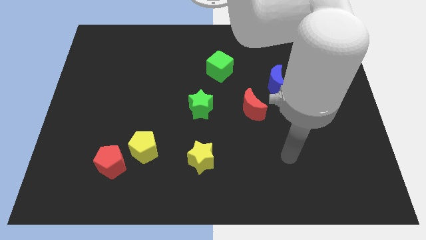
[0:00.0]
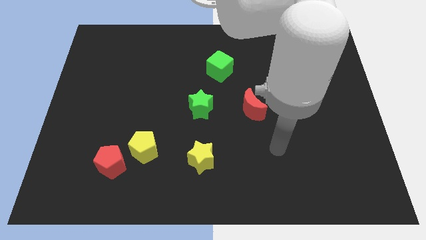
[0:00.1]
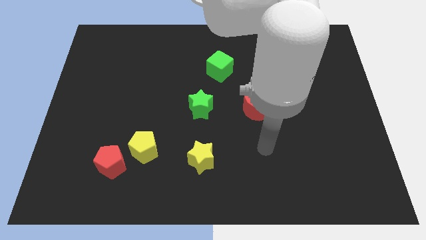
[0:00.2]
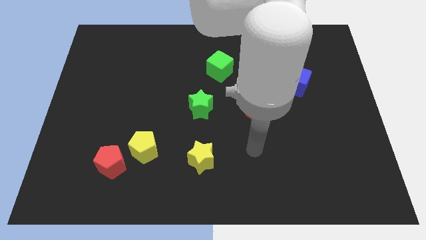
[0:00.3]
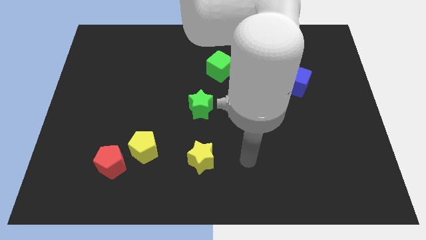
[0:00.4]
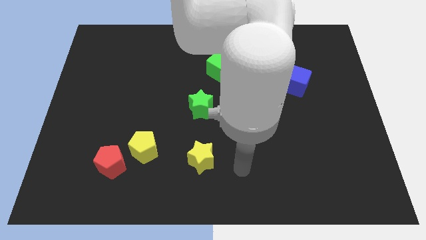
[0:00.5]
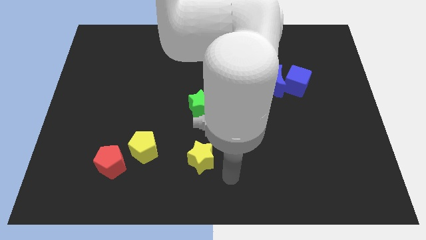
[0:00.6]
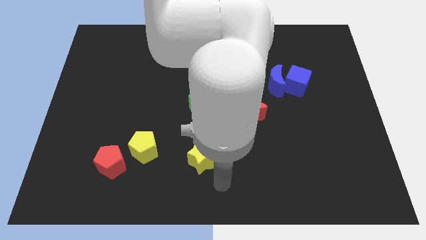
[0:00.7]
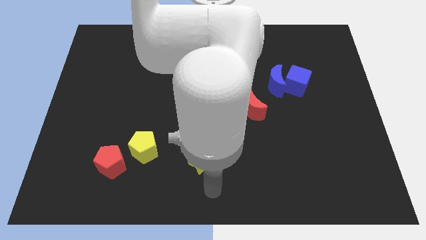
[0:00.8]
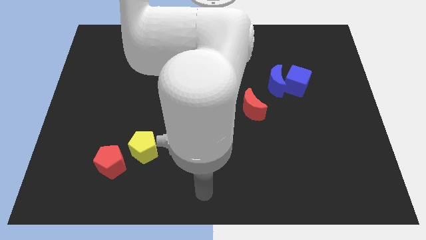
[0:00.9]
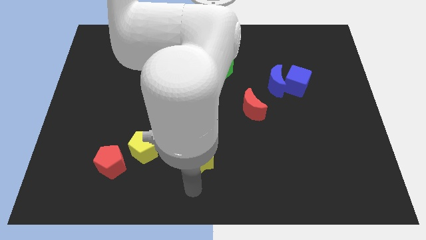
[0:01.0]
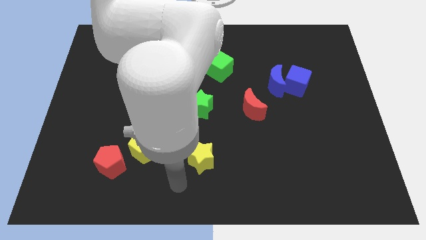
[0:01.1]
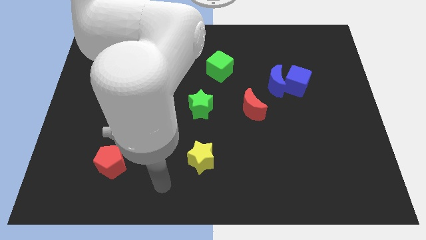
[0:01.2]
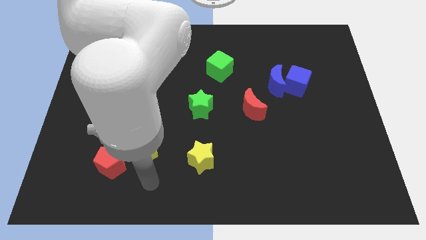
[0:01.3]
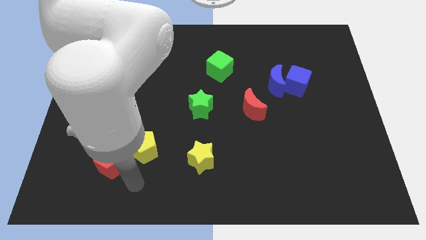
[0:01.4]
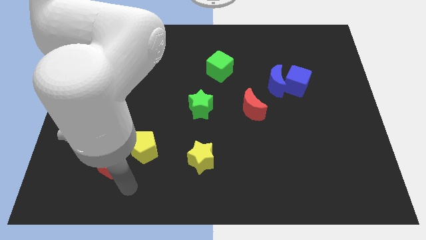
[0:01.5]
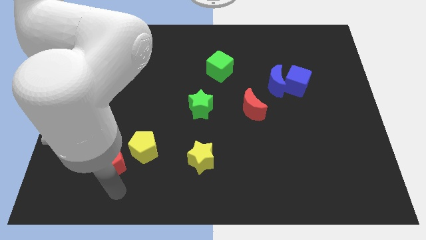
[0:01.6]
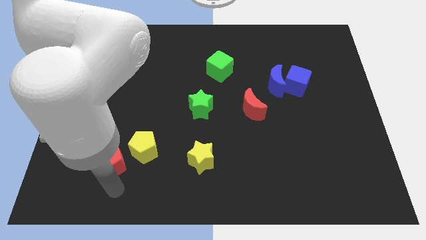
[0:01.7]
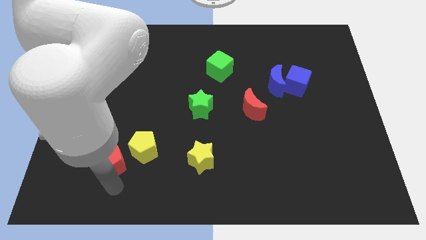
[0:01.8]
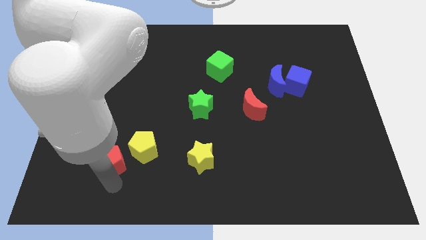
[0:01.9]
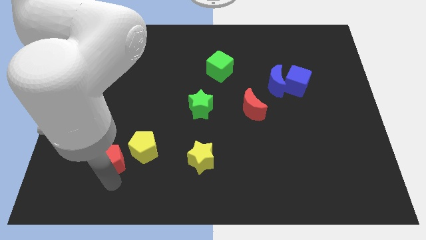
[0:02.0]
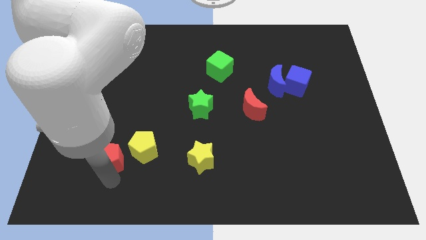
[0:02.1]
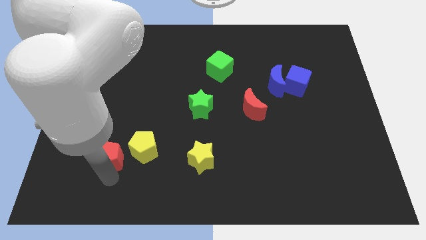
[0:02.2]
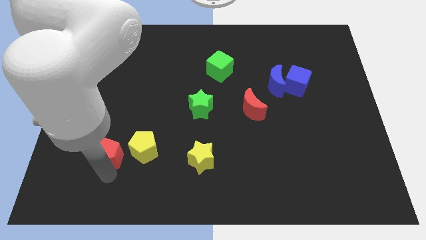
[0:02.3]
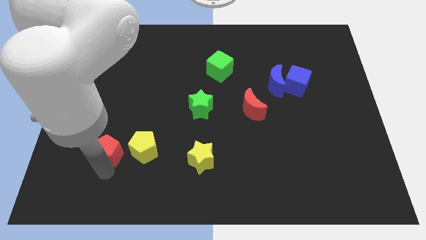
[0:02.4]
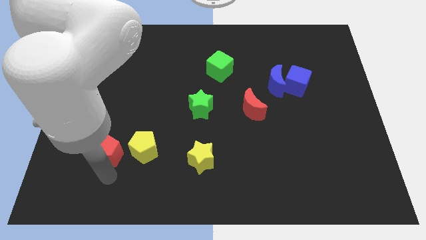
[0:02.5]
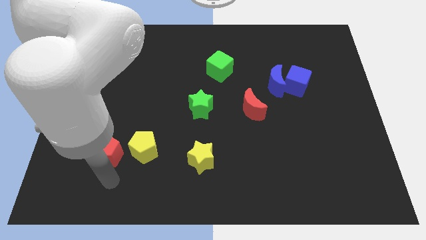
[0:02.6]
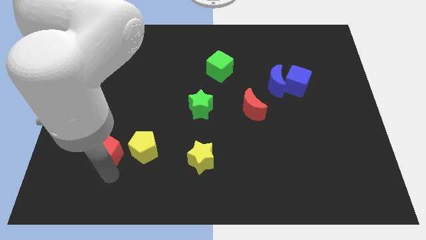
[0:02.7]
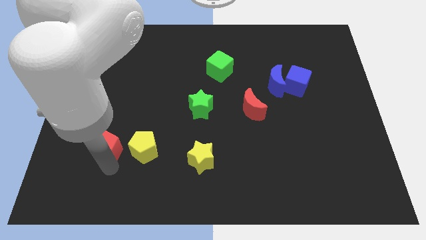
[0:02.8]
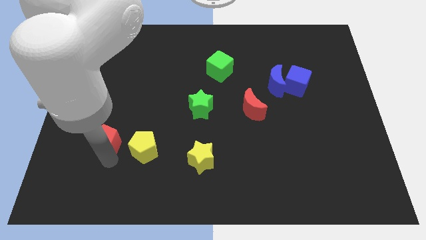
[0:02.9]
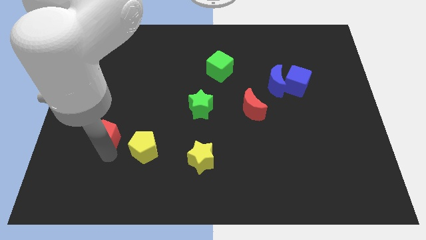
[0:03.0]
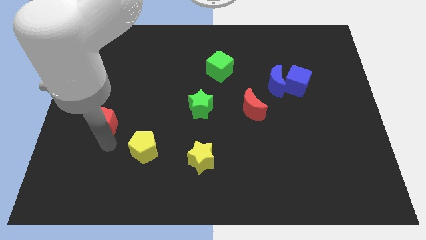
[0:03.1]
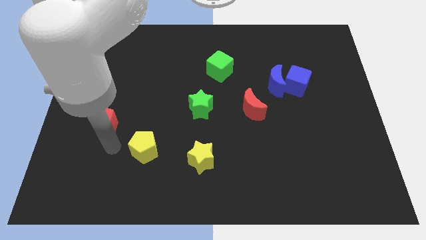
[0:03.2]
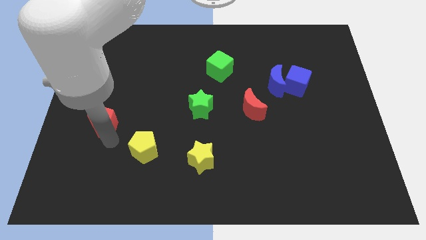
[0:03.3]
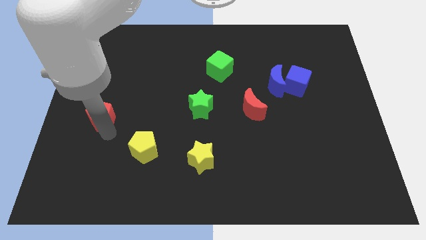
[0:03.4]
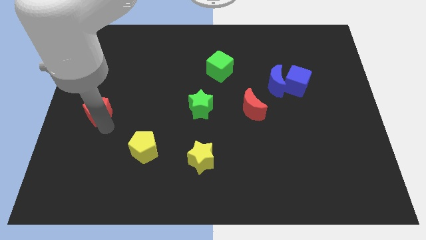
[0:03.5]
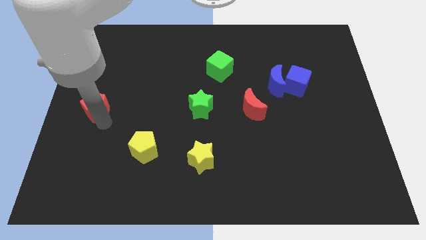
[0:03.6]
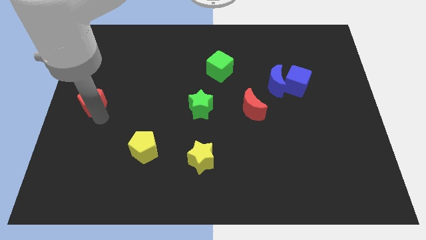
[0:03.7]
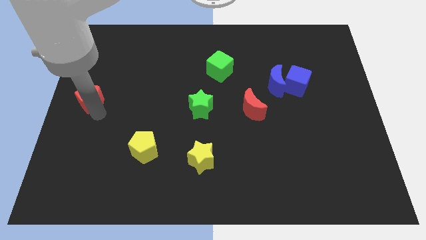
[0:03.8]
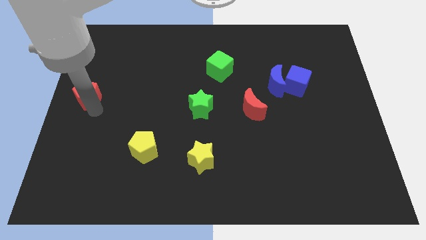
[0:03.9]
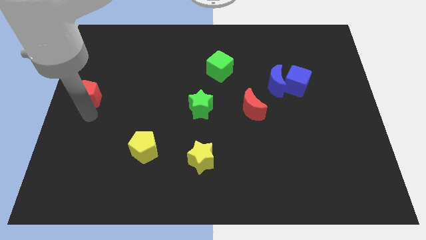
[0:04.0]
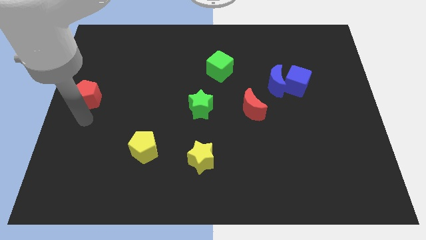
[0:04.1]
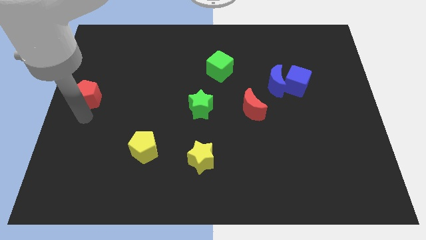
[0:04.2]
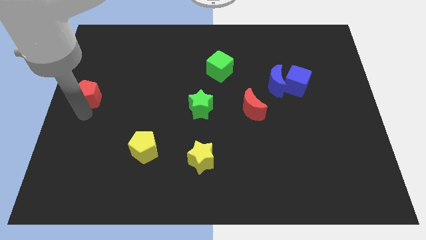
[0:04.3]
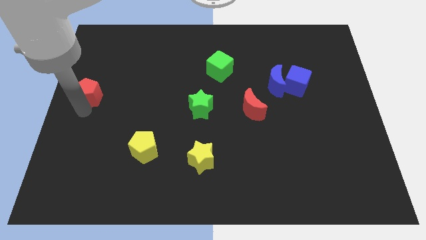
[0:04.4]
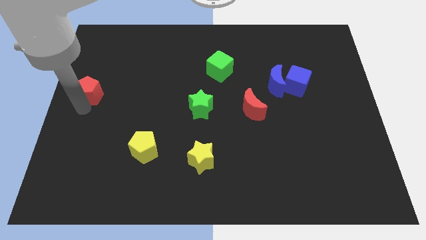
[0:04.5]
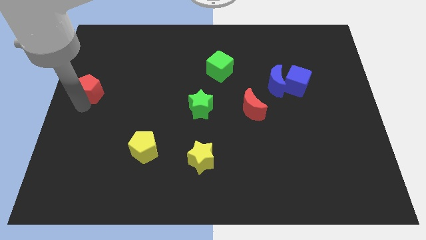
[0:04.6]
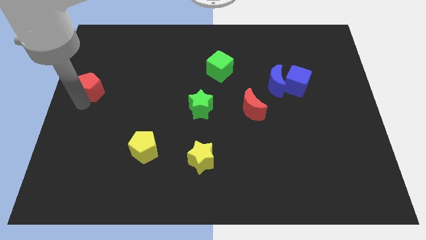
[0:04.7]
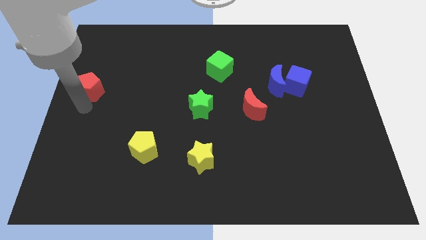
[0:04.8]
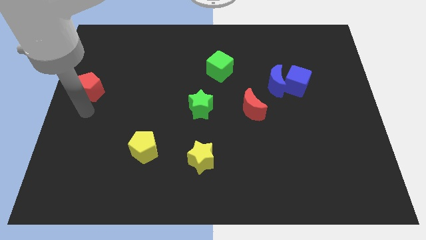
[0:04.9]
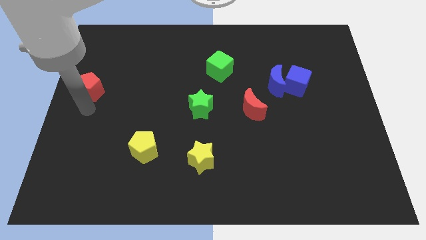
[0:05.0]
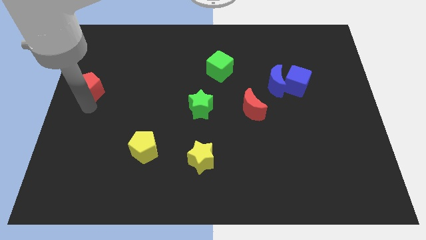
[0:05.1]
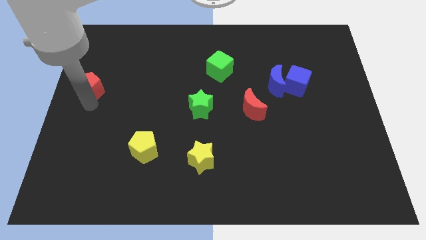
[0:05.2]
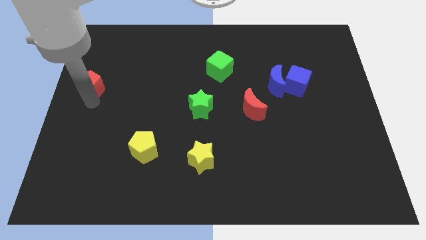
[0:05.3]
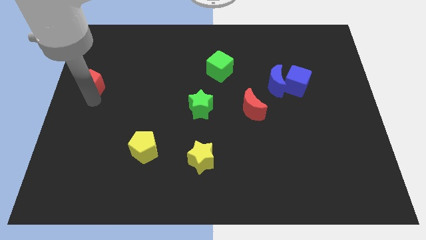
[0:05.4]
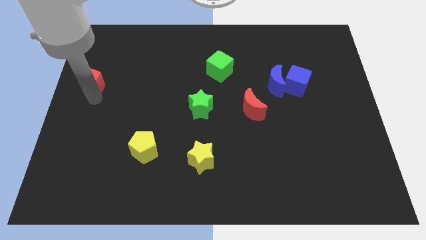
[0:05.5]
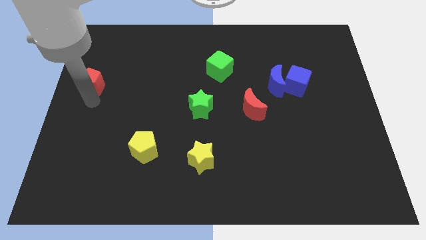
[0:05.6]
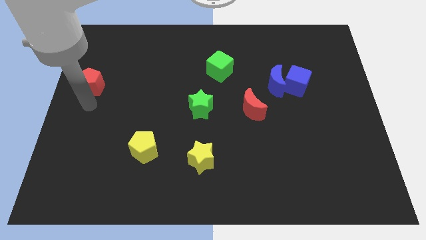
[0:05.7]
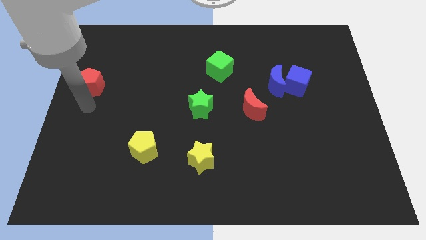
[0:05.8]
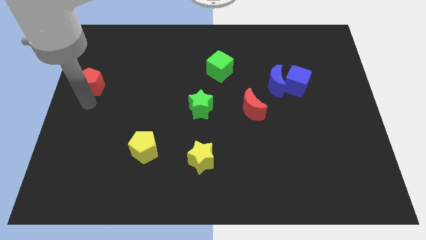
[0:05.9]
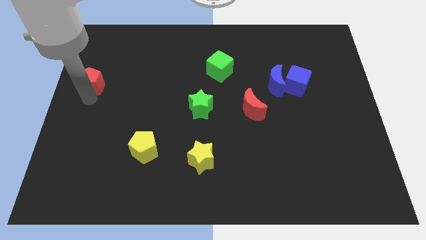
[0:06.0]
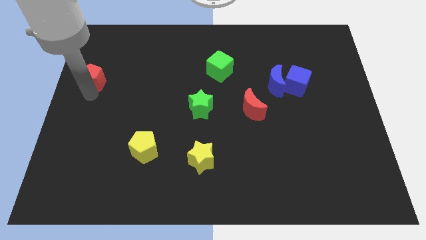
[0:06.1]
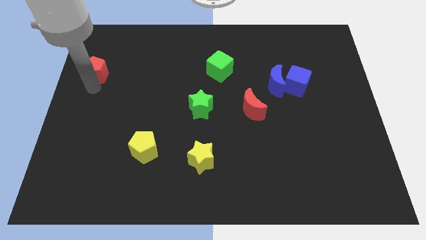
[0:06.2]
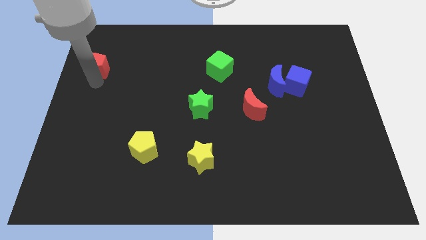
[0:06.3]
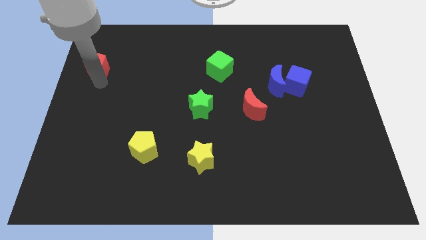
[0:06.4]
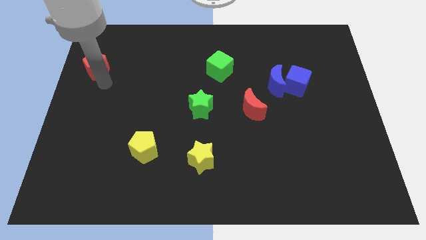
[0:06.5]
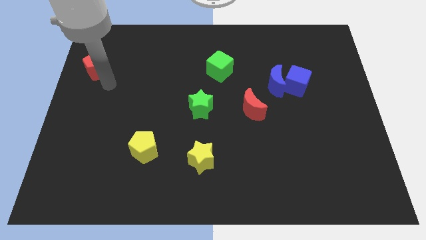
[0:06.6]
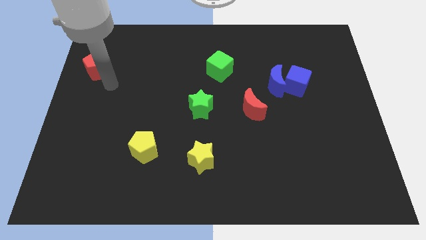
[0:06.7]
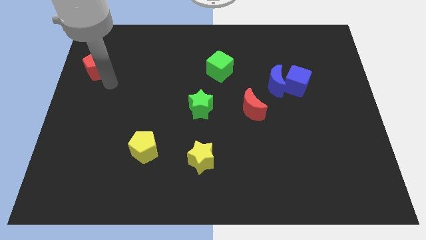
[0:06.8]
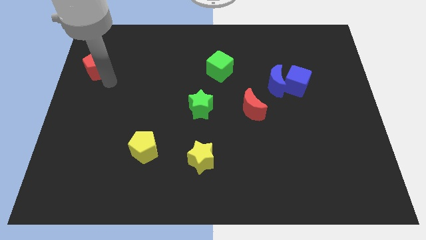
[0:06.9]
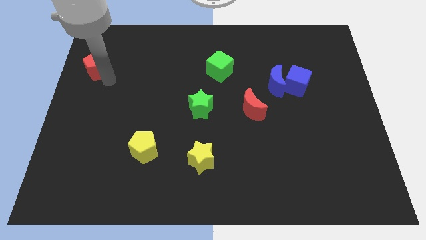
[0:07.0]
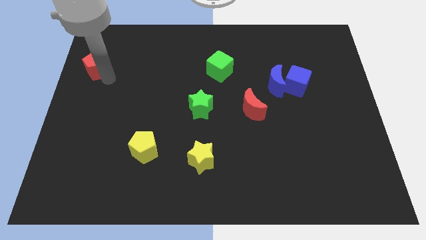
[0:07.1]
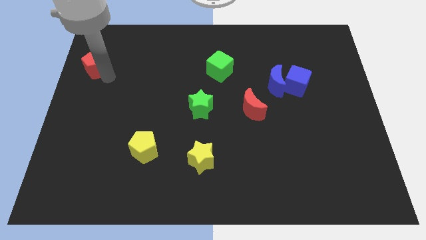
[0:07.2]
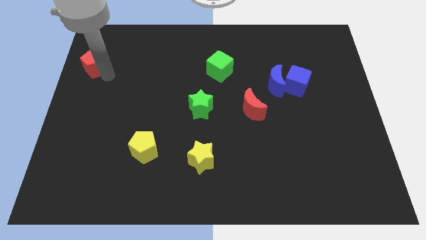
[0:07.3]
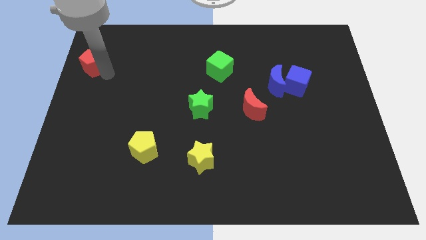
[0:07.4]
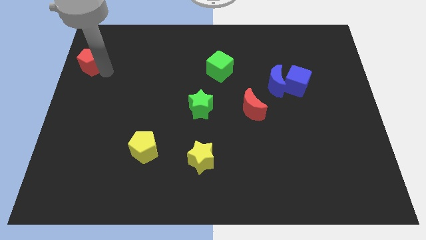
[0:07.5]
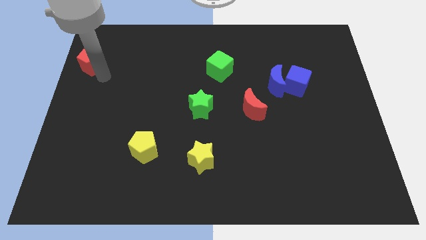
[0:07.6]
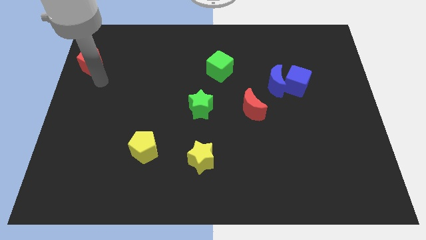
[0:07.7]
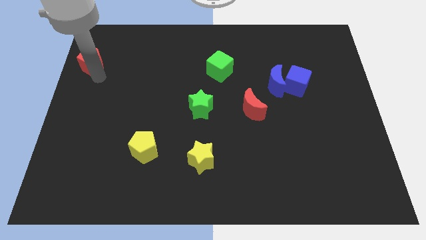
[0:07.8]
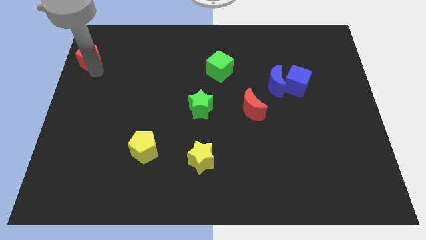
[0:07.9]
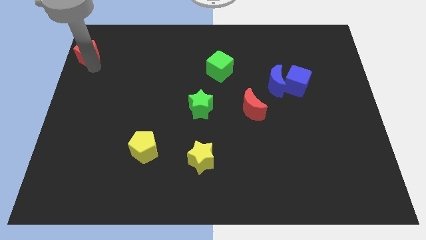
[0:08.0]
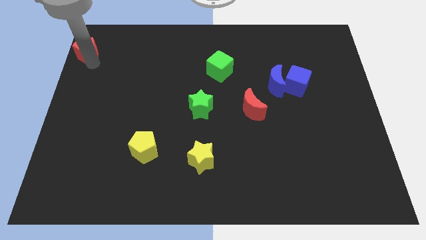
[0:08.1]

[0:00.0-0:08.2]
push the red pentagon to the top left
